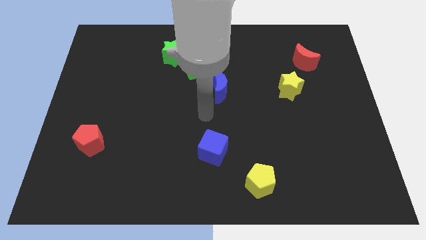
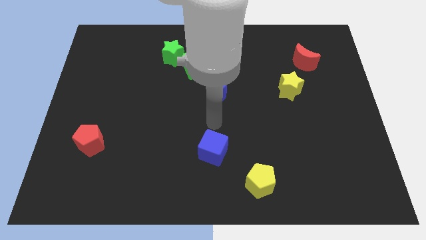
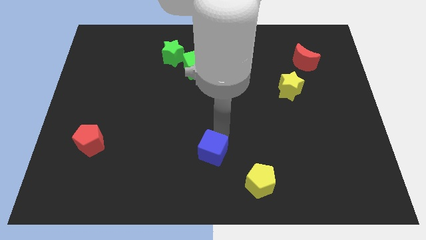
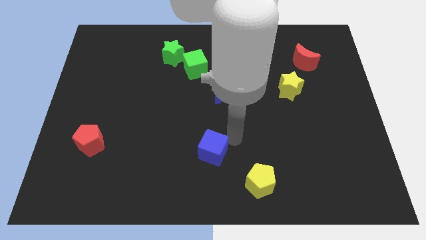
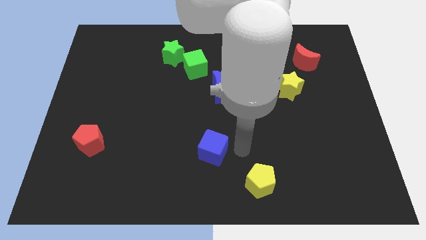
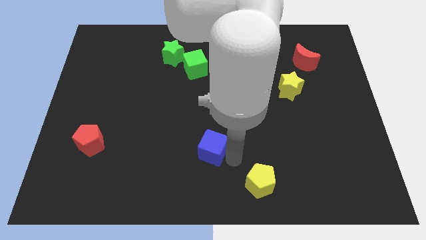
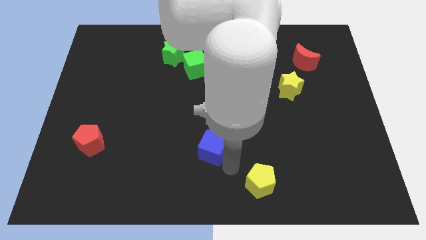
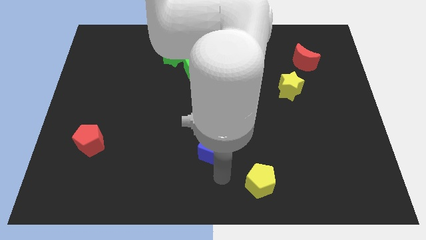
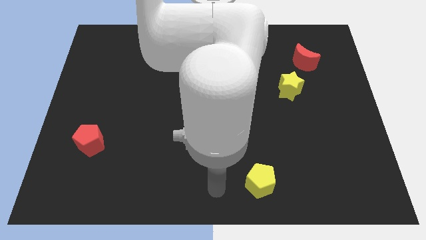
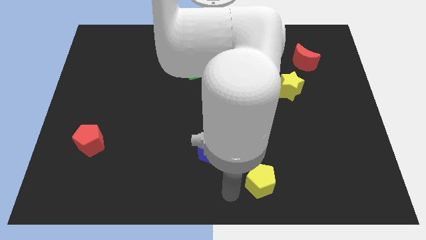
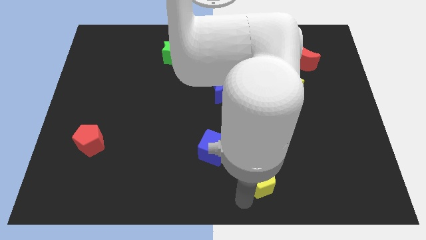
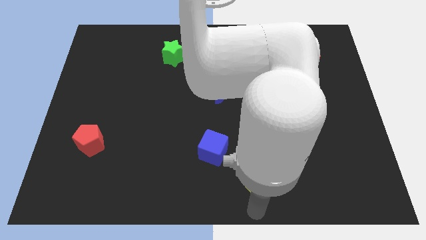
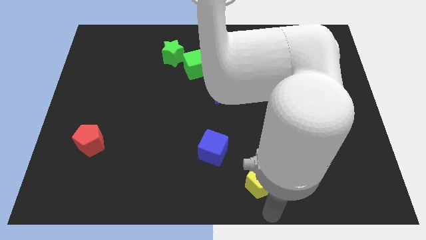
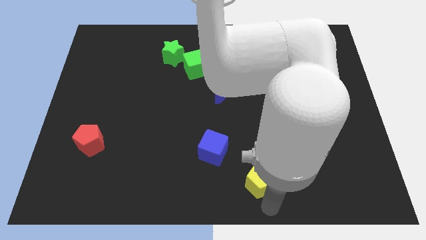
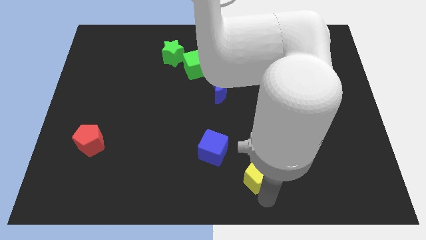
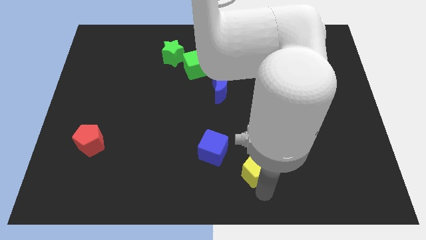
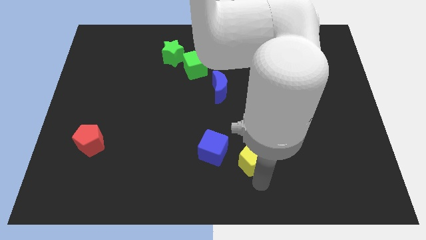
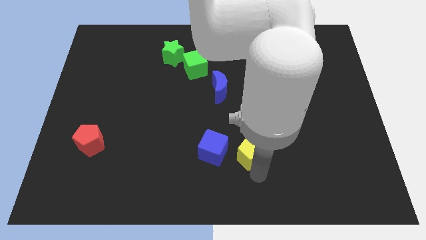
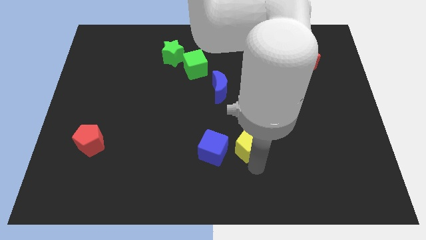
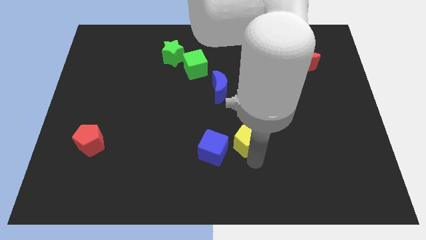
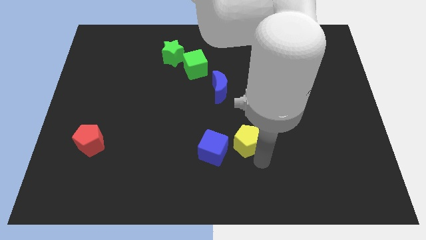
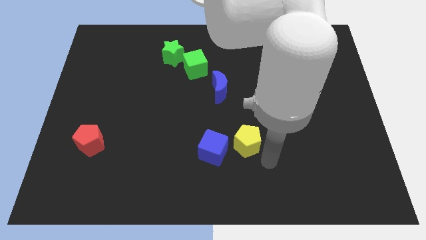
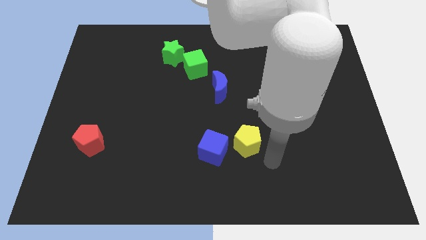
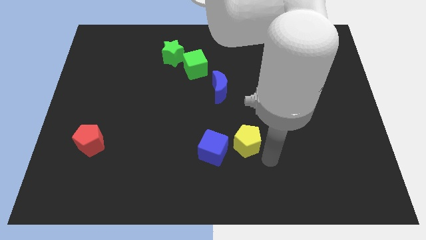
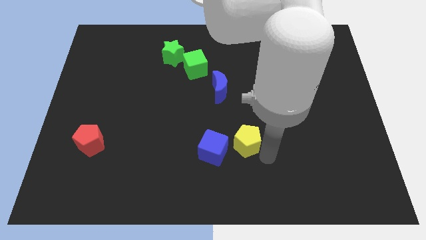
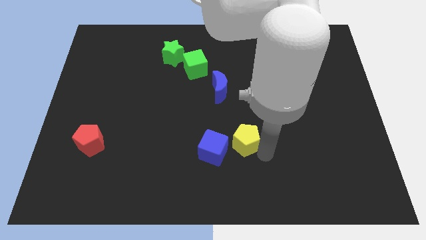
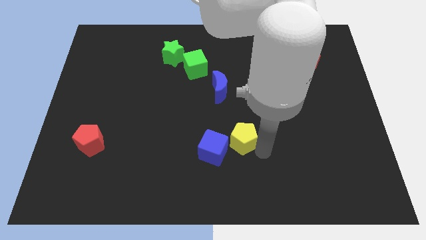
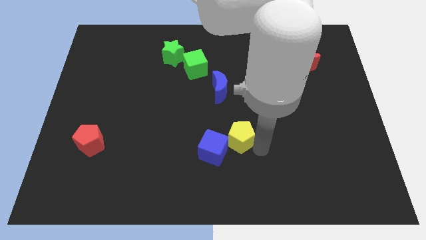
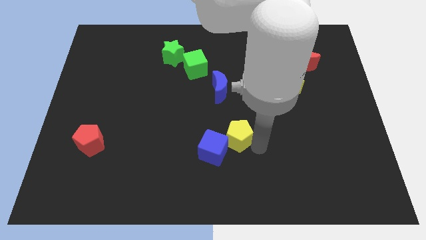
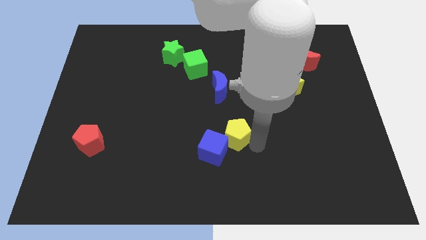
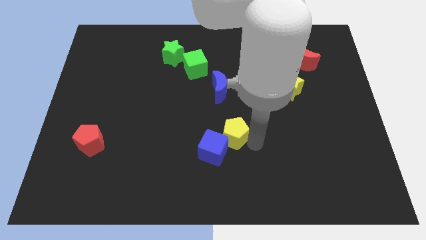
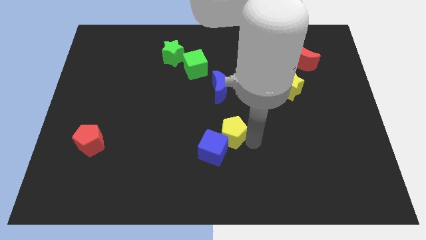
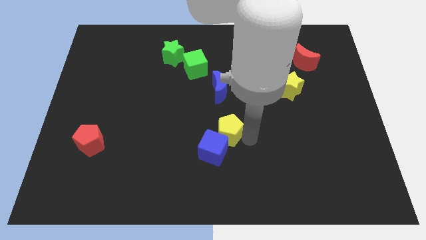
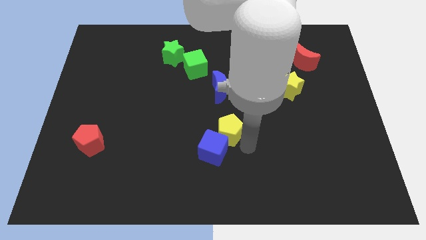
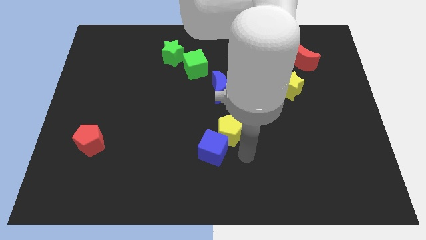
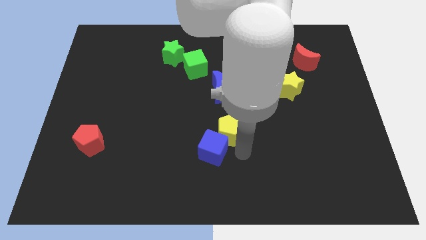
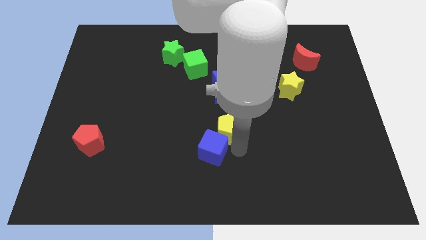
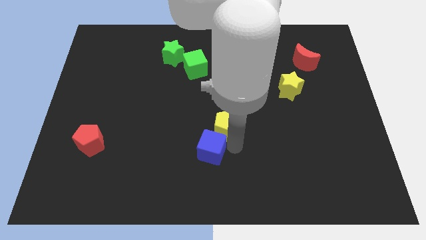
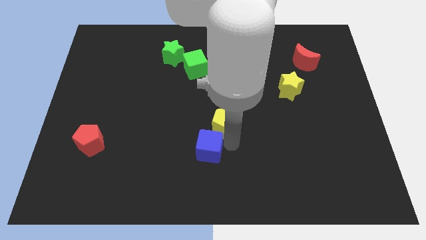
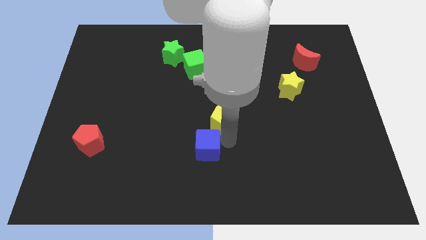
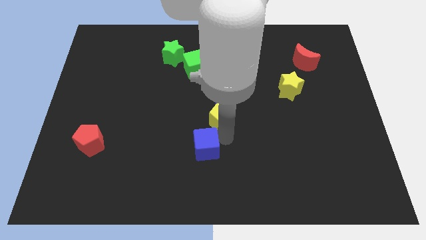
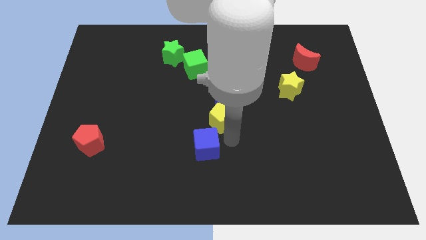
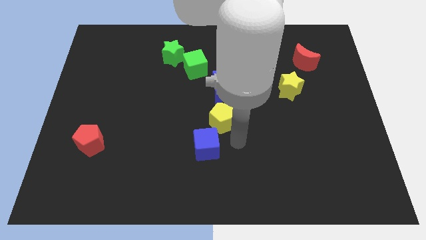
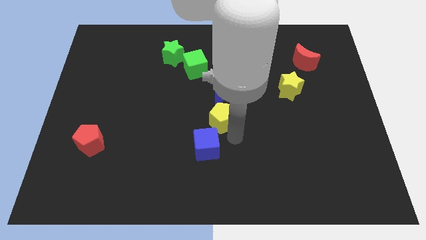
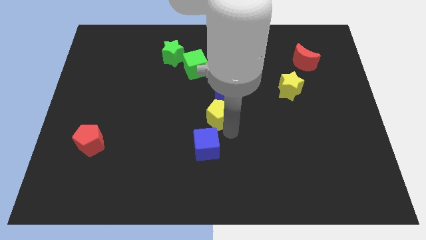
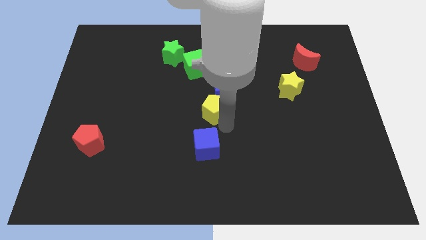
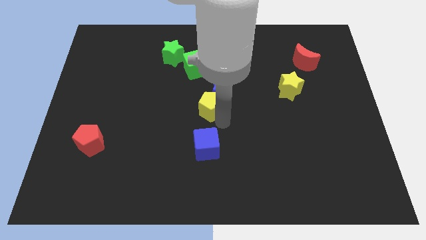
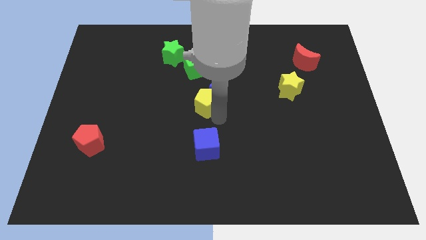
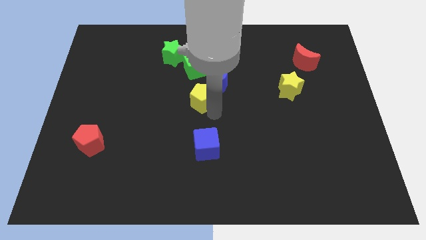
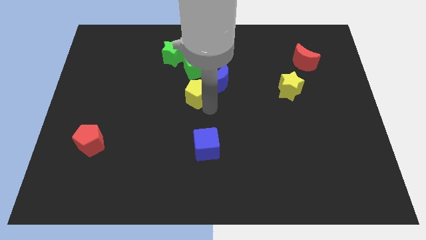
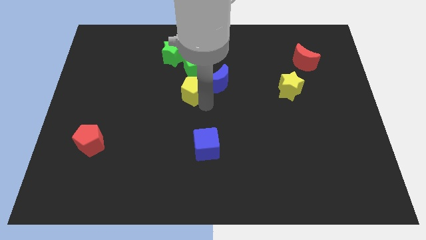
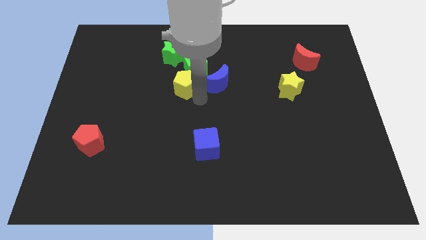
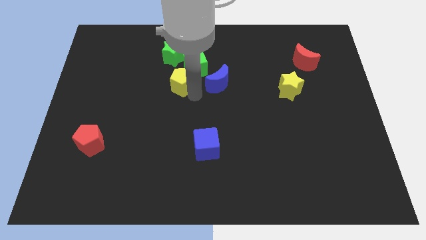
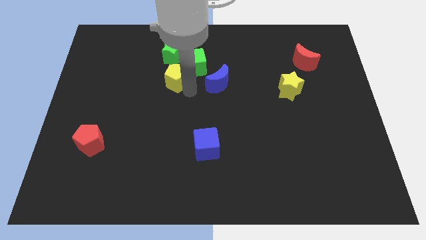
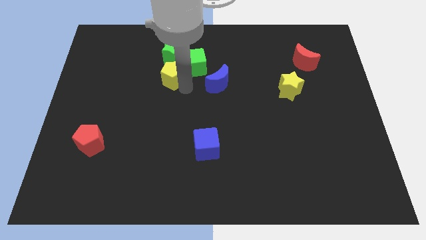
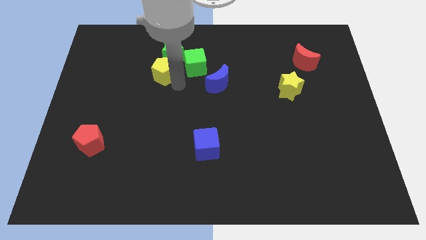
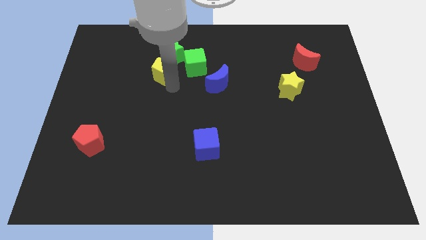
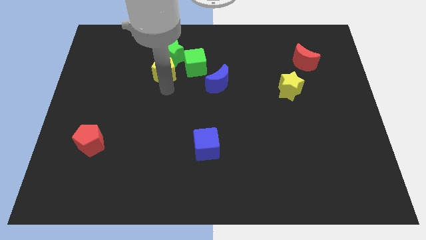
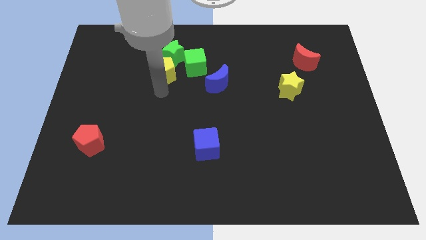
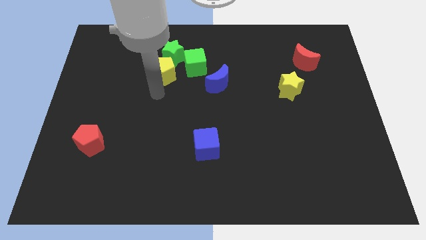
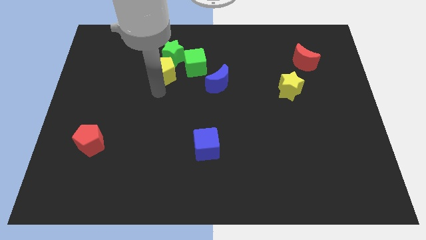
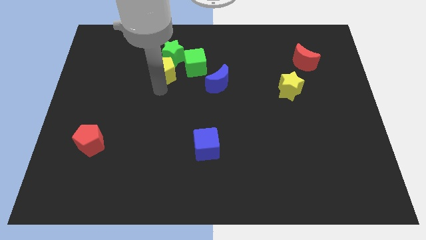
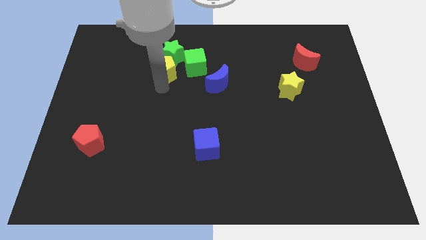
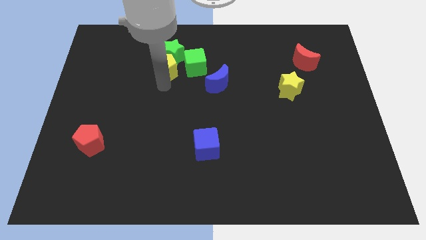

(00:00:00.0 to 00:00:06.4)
slide the yellow pentagon close to the green star

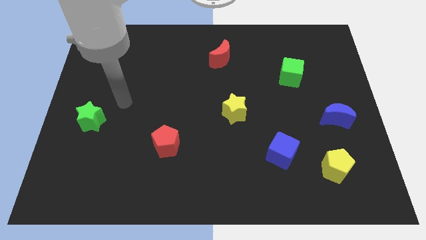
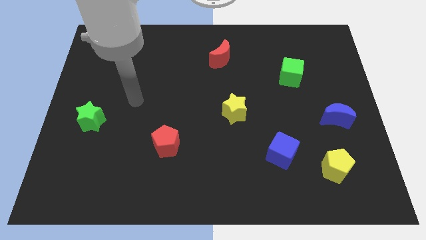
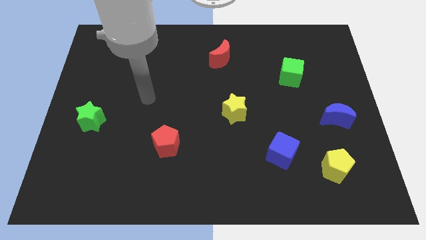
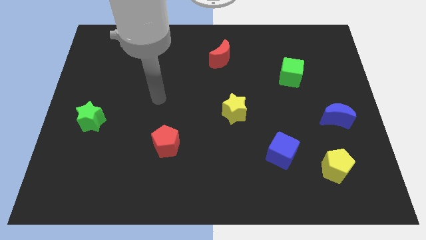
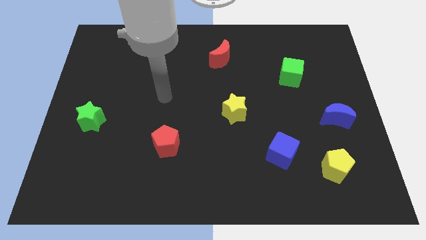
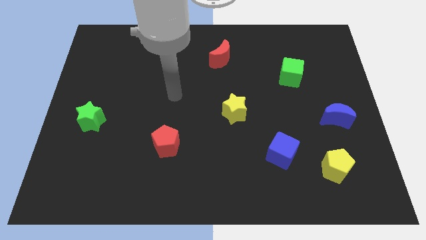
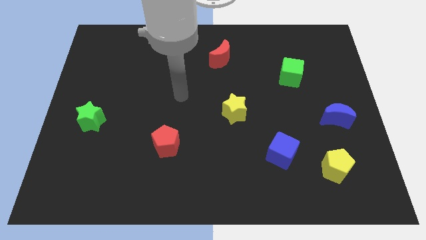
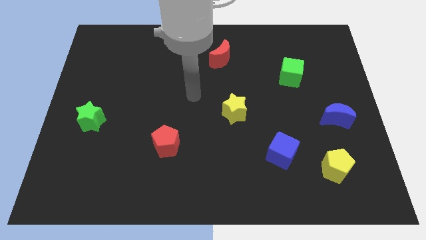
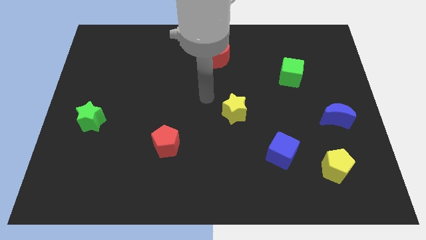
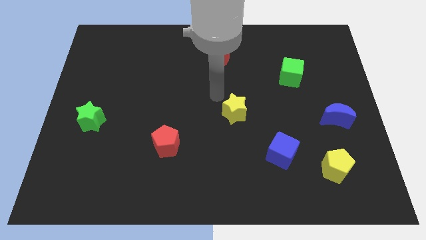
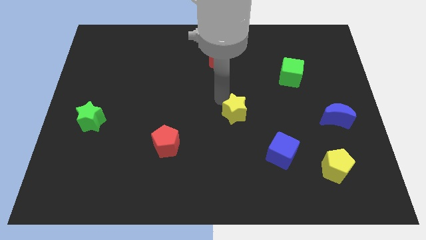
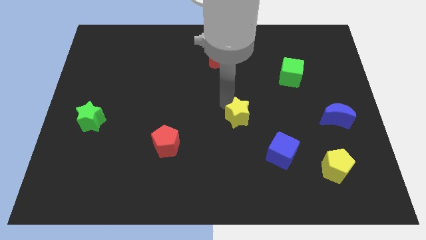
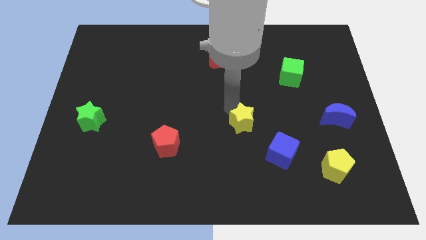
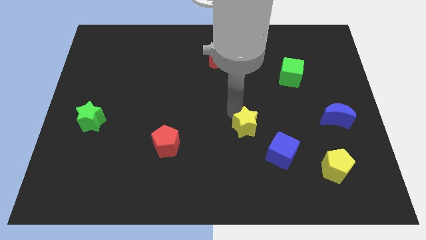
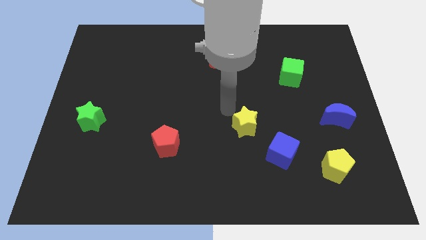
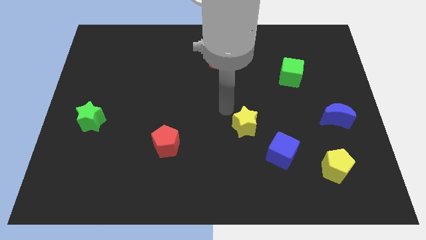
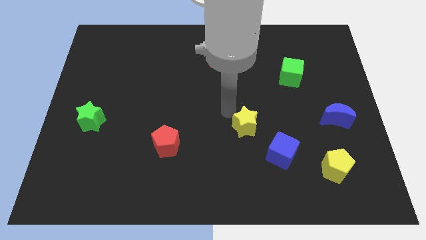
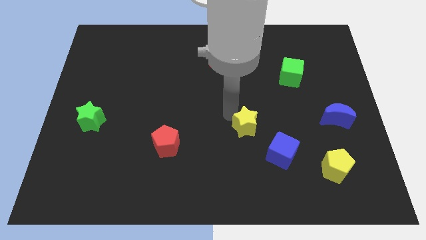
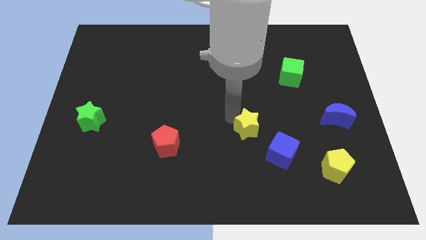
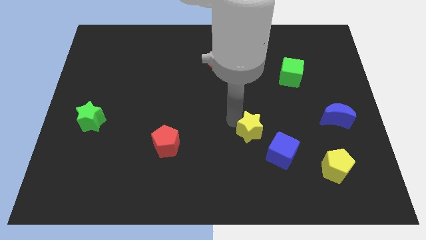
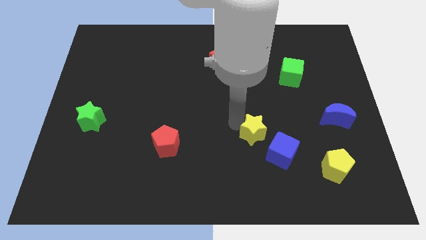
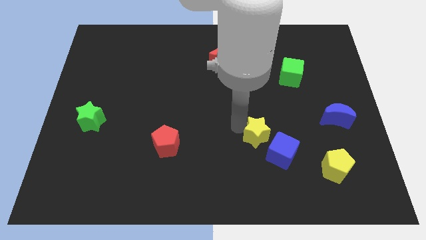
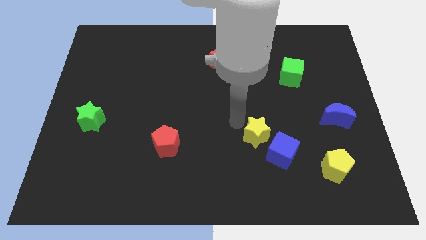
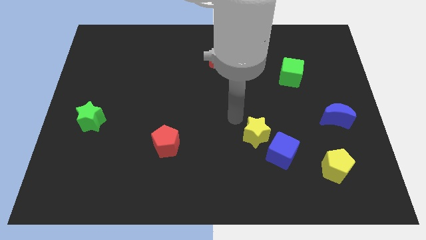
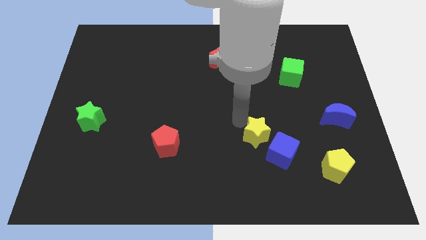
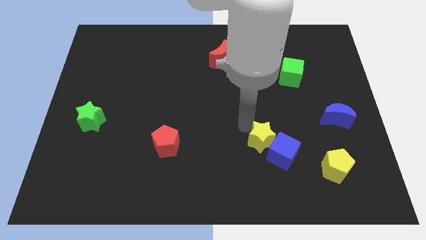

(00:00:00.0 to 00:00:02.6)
put the yellow star to the blue cube
